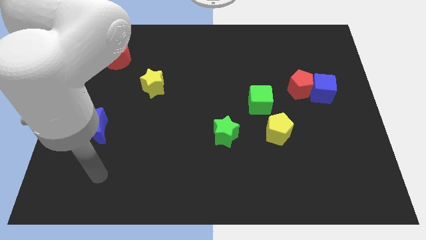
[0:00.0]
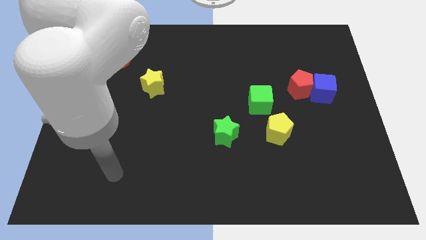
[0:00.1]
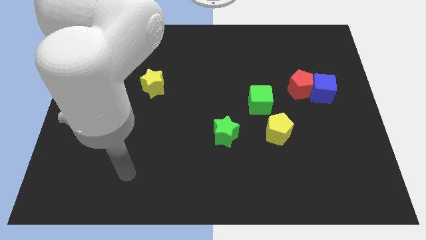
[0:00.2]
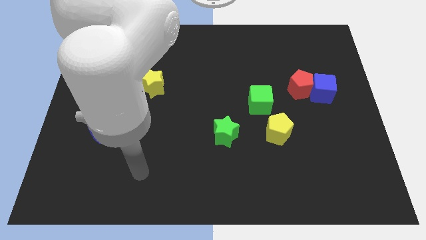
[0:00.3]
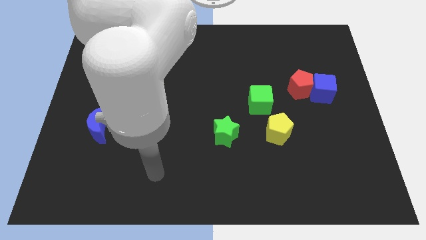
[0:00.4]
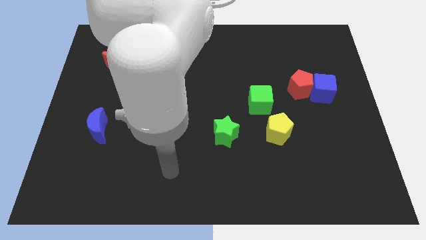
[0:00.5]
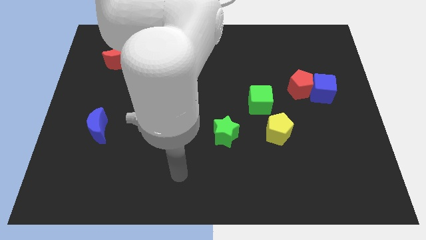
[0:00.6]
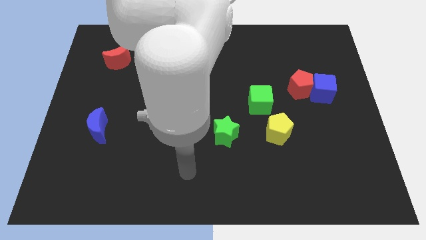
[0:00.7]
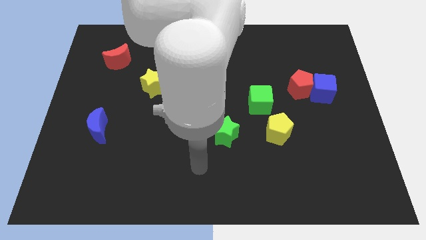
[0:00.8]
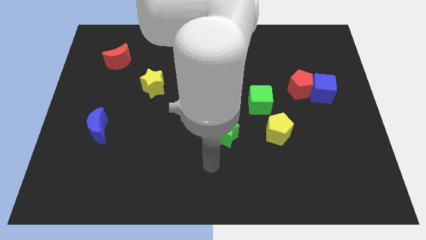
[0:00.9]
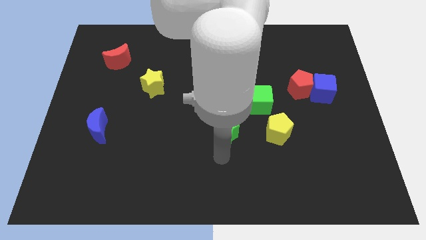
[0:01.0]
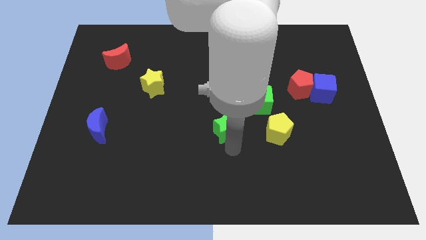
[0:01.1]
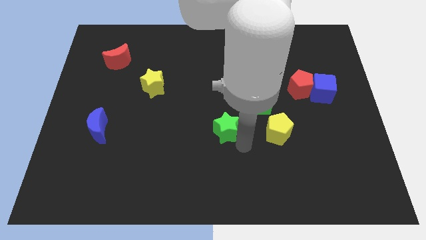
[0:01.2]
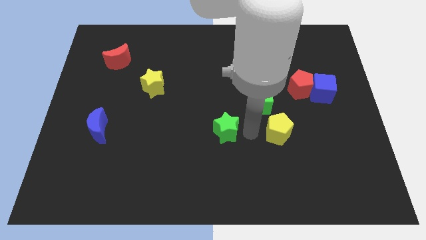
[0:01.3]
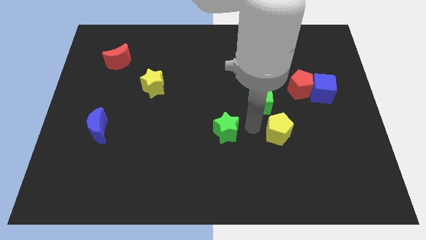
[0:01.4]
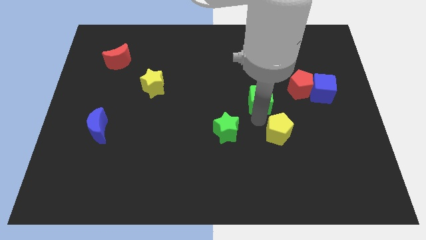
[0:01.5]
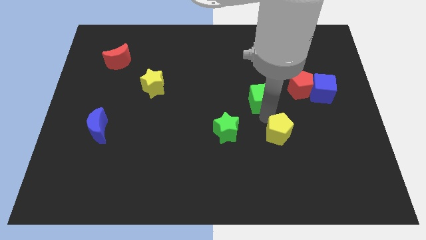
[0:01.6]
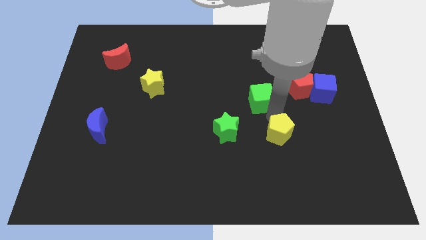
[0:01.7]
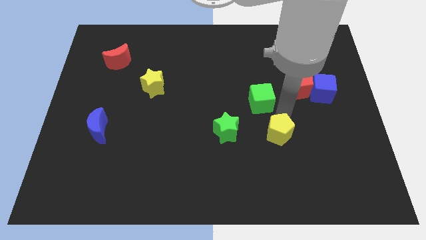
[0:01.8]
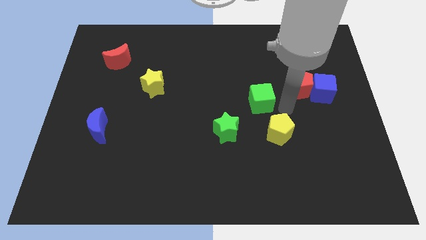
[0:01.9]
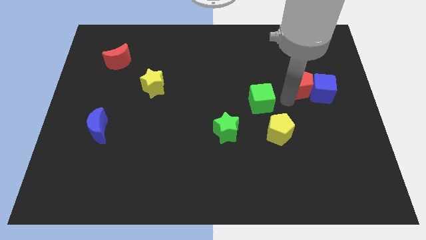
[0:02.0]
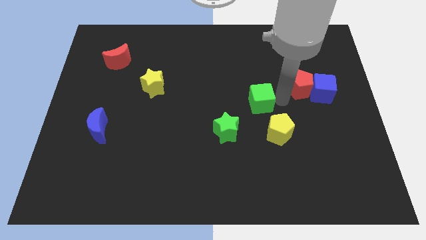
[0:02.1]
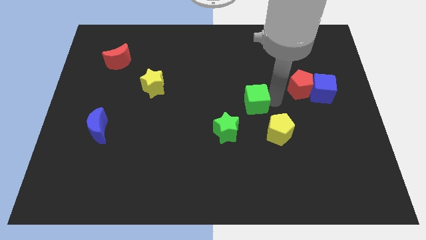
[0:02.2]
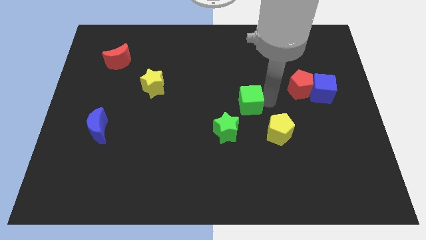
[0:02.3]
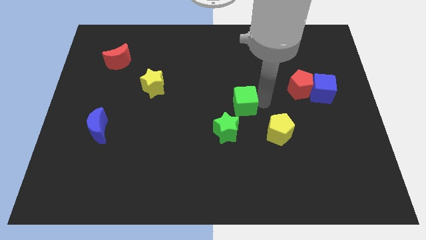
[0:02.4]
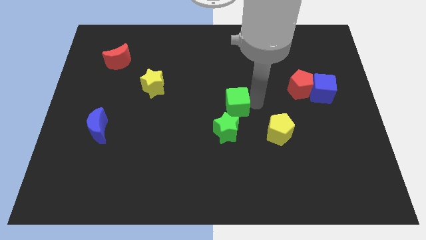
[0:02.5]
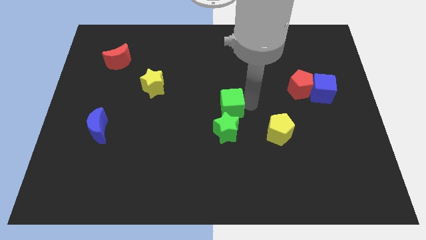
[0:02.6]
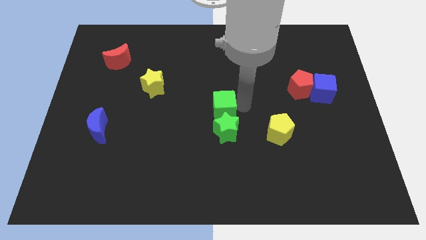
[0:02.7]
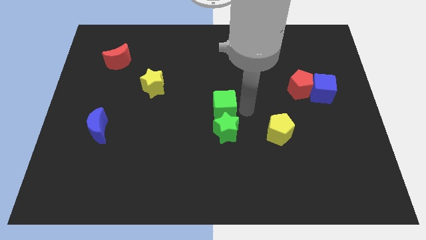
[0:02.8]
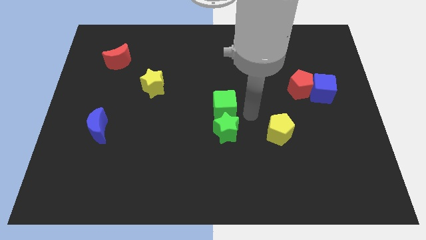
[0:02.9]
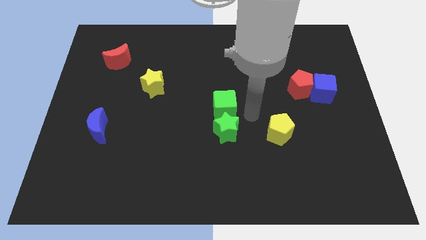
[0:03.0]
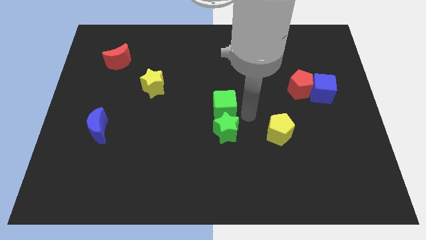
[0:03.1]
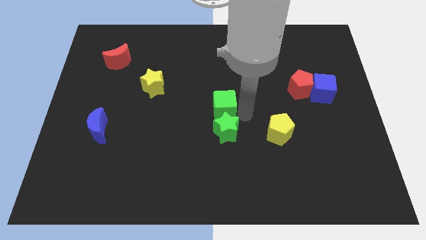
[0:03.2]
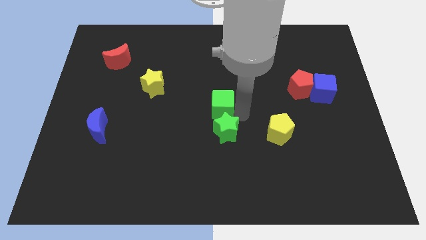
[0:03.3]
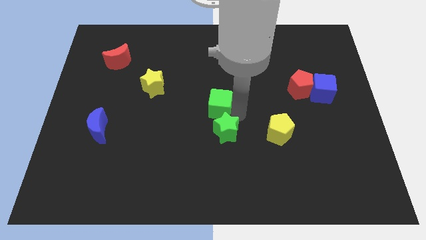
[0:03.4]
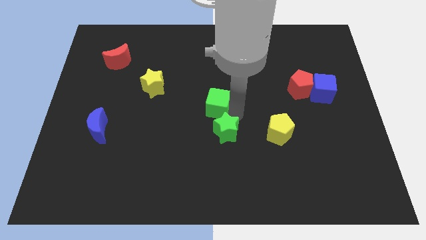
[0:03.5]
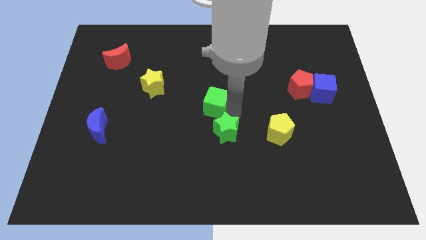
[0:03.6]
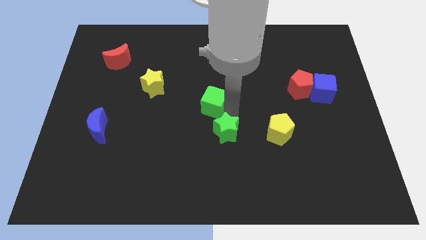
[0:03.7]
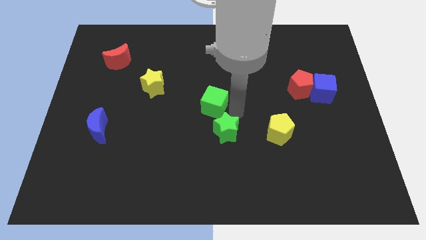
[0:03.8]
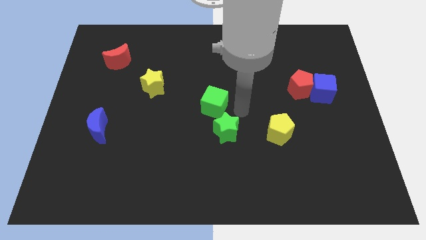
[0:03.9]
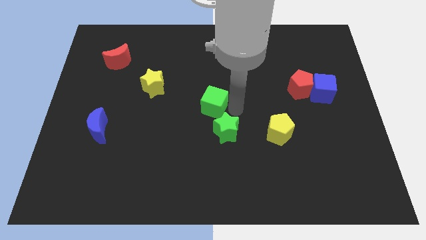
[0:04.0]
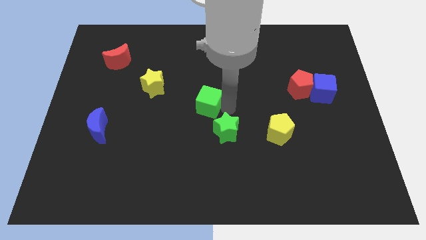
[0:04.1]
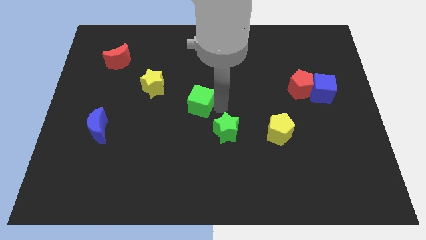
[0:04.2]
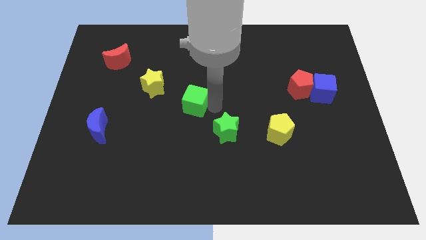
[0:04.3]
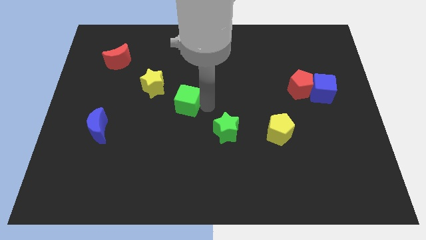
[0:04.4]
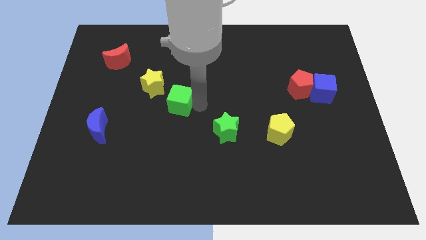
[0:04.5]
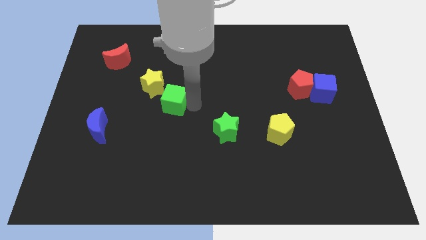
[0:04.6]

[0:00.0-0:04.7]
slide the green cube to the left

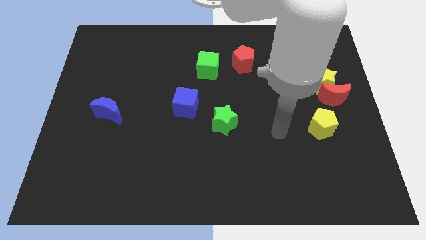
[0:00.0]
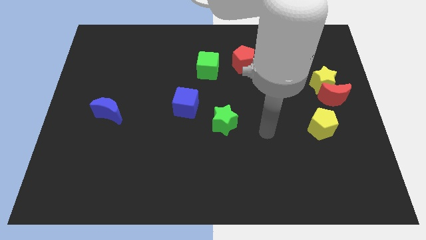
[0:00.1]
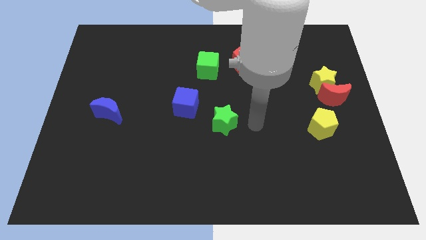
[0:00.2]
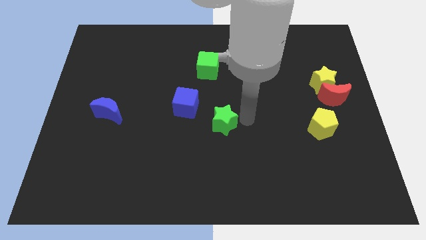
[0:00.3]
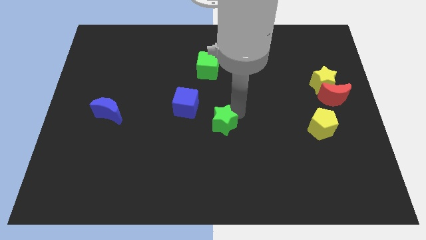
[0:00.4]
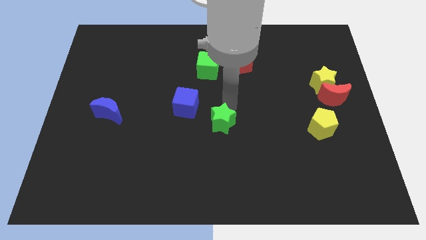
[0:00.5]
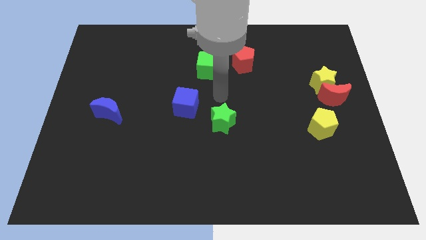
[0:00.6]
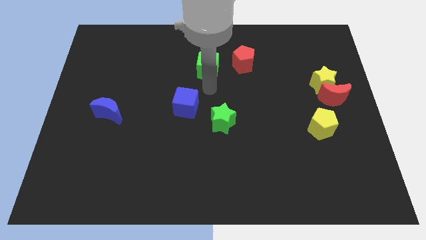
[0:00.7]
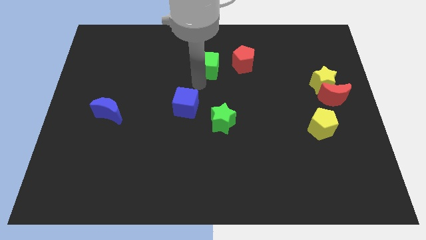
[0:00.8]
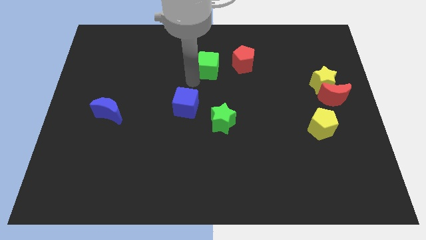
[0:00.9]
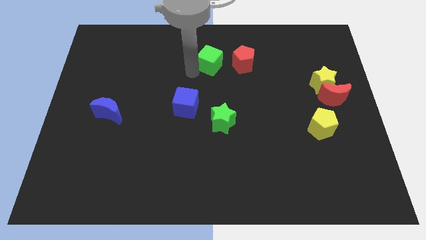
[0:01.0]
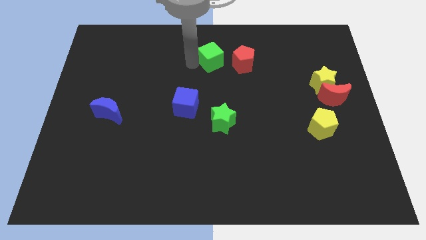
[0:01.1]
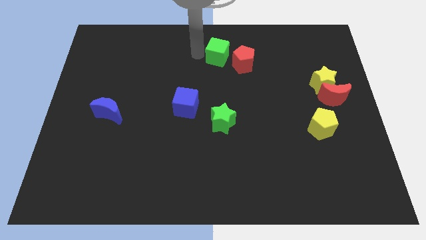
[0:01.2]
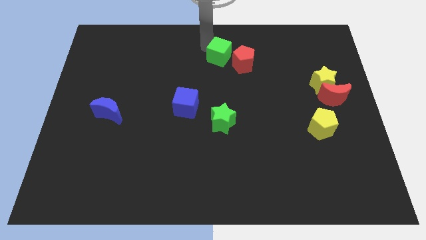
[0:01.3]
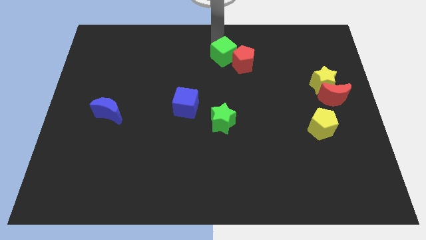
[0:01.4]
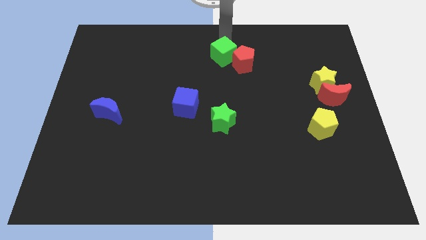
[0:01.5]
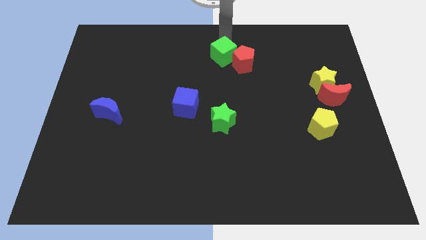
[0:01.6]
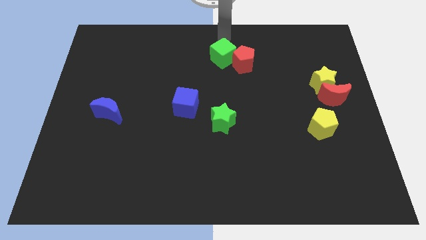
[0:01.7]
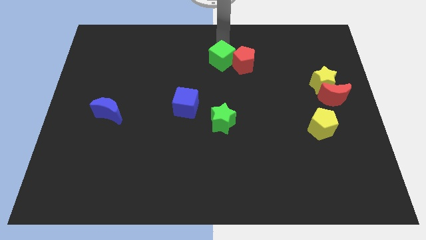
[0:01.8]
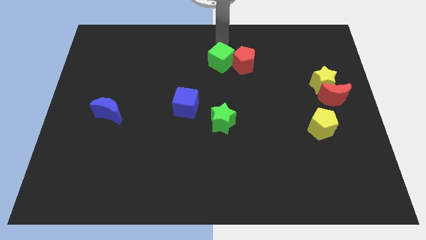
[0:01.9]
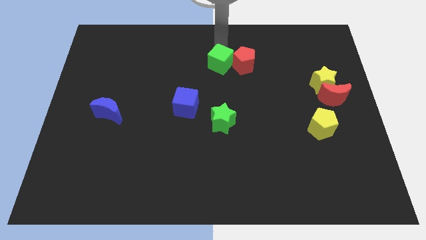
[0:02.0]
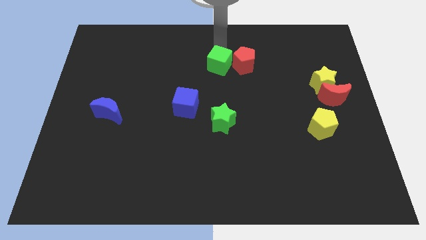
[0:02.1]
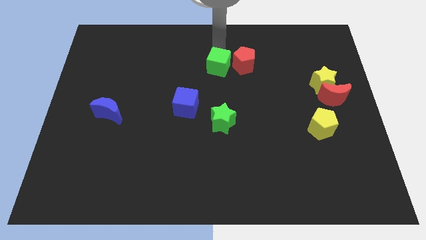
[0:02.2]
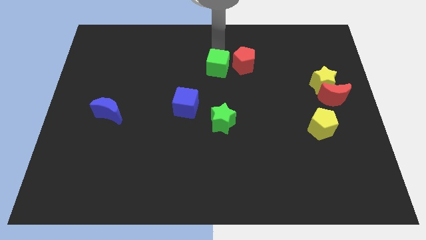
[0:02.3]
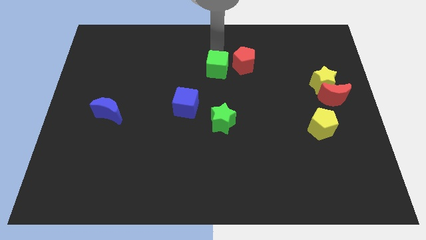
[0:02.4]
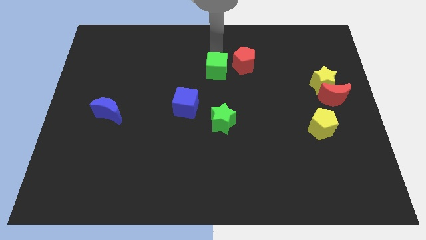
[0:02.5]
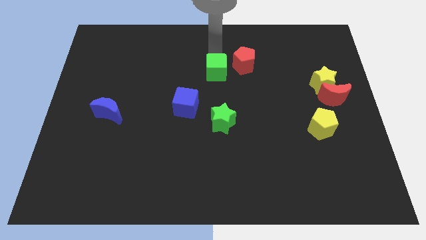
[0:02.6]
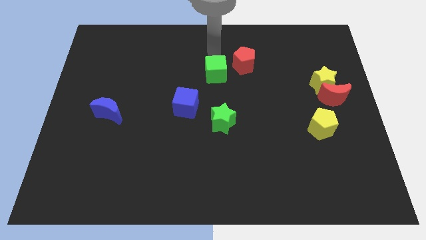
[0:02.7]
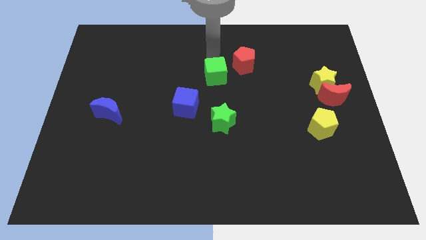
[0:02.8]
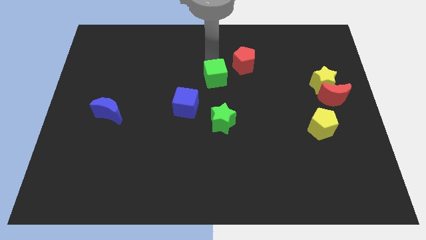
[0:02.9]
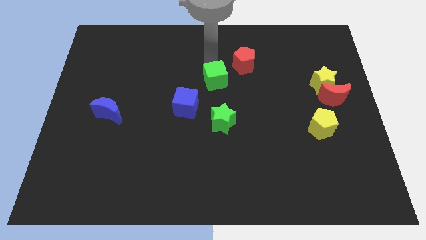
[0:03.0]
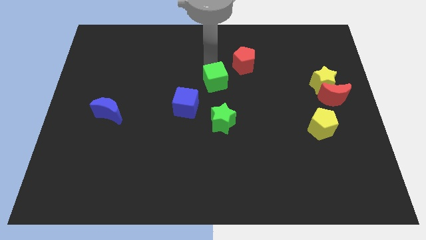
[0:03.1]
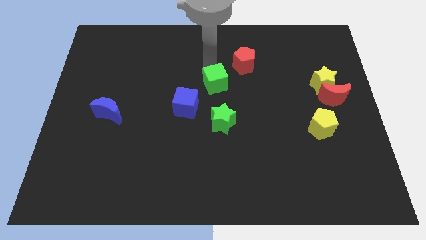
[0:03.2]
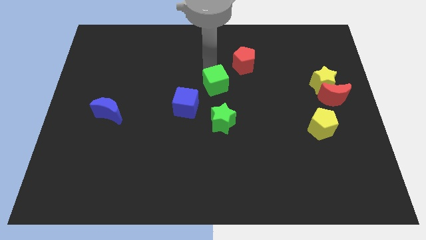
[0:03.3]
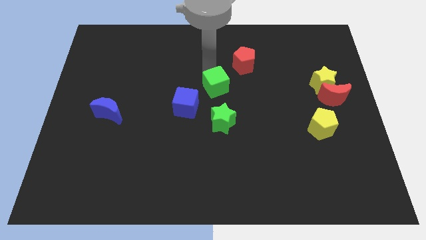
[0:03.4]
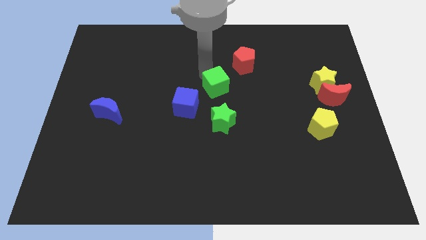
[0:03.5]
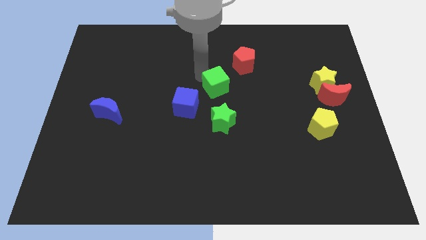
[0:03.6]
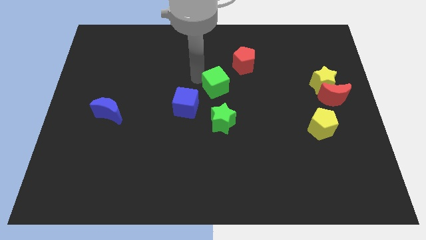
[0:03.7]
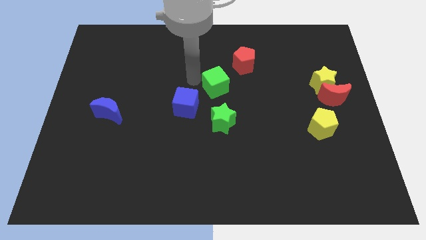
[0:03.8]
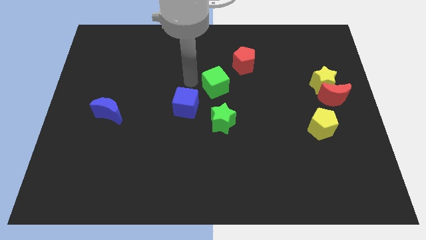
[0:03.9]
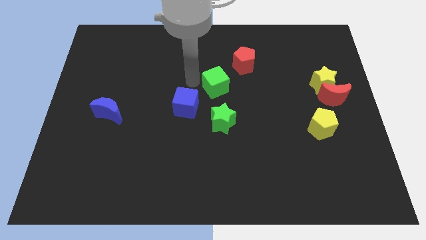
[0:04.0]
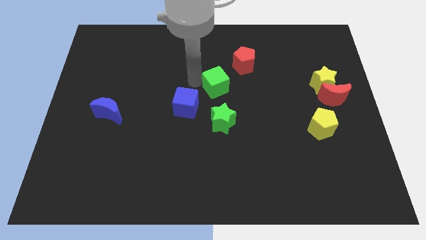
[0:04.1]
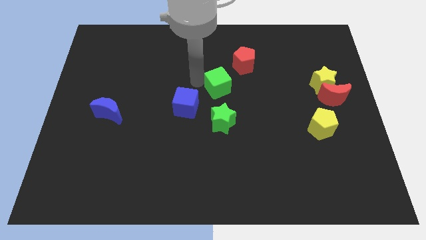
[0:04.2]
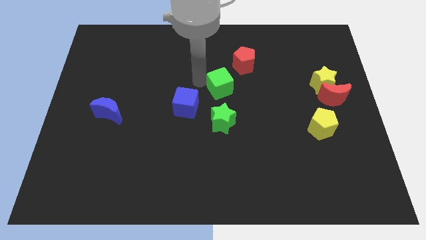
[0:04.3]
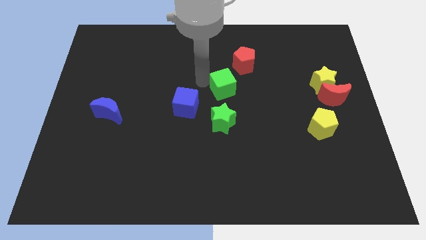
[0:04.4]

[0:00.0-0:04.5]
slide the green cube somewhat down and then to the right
